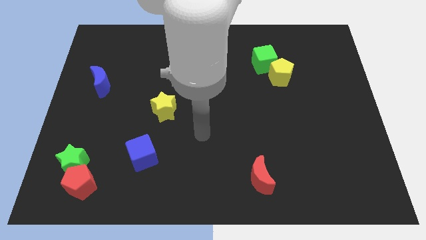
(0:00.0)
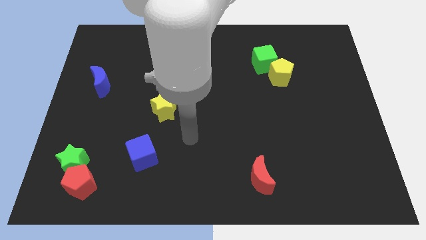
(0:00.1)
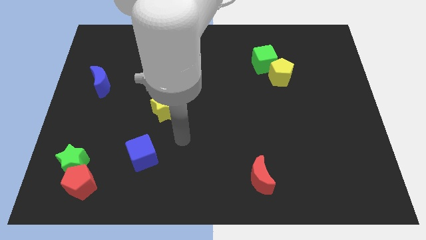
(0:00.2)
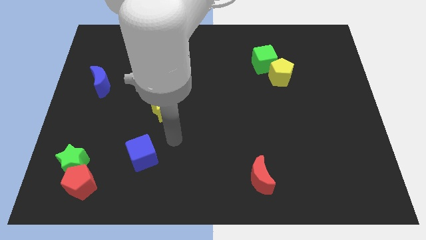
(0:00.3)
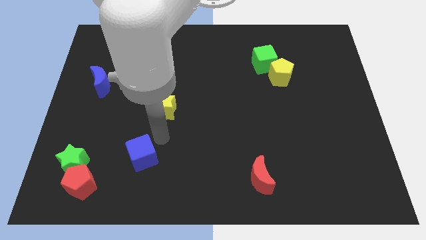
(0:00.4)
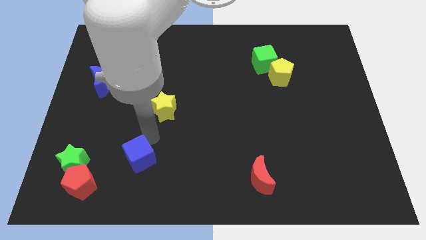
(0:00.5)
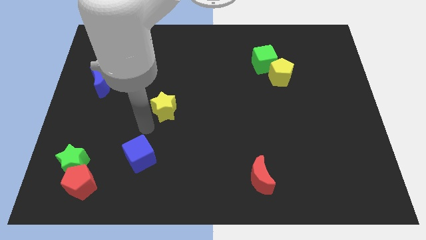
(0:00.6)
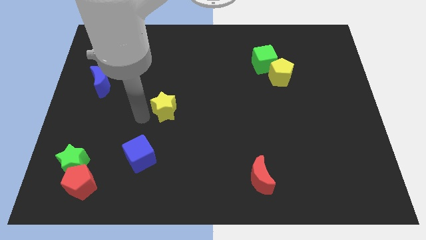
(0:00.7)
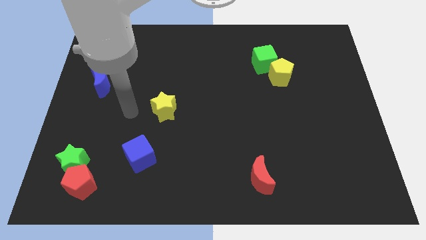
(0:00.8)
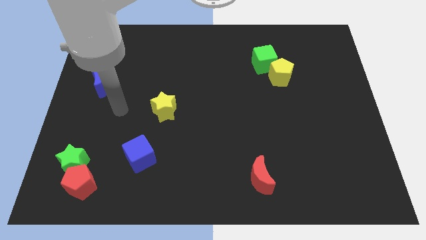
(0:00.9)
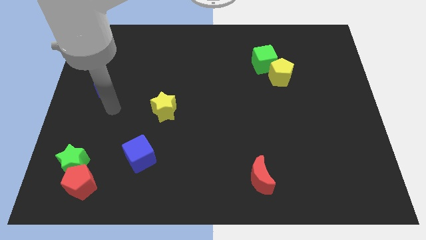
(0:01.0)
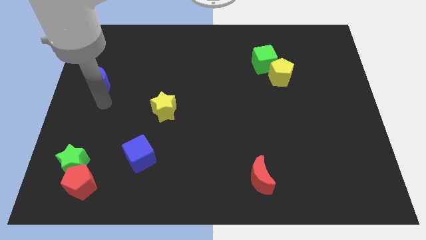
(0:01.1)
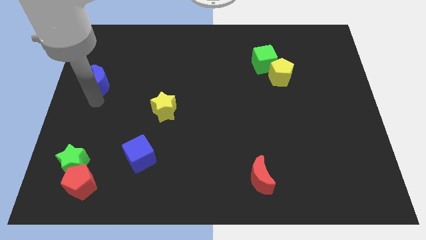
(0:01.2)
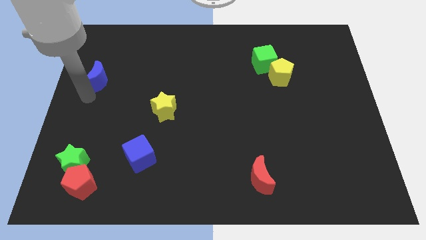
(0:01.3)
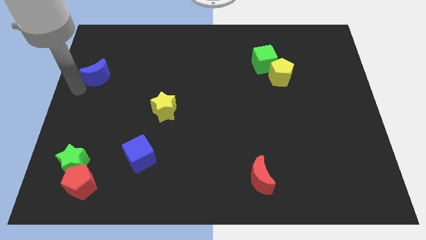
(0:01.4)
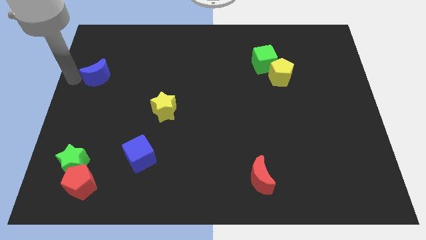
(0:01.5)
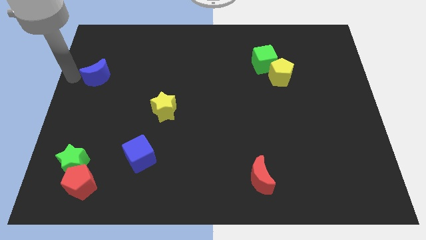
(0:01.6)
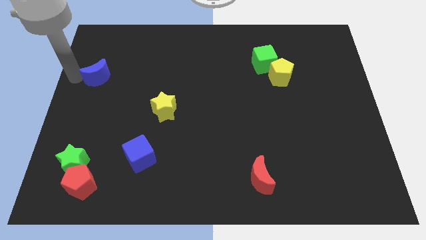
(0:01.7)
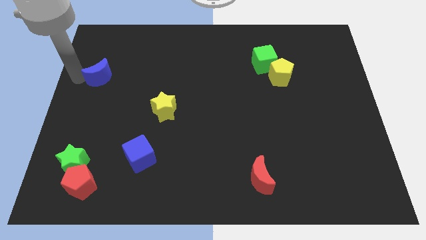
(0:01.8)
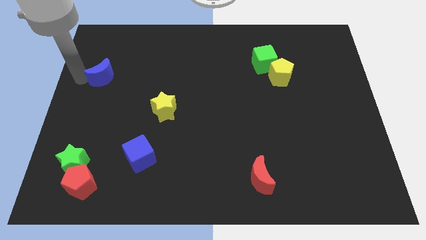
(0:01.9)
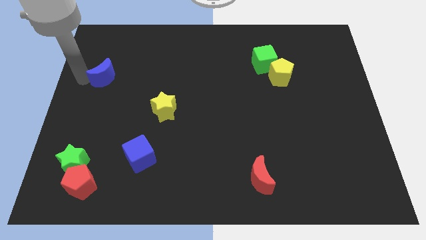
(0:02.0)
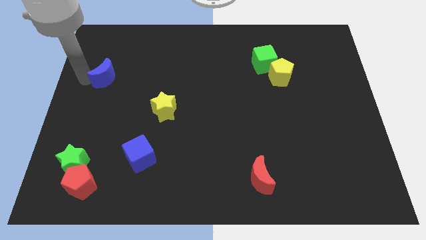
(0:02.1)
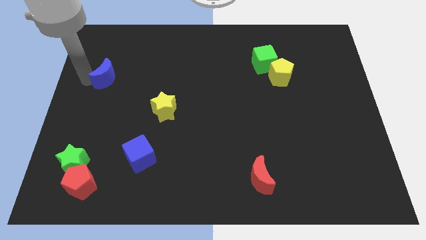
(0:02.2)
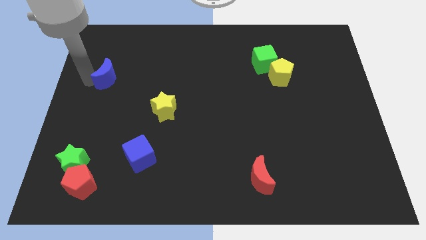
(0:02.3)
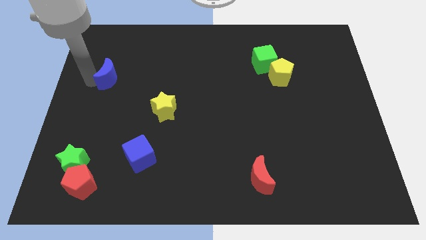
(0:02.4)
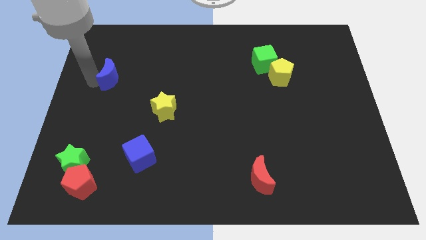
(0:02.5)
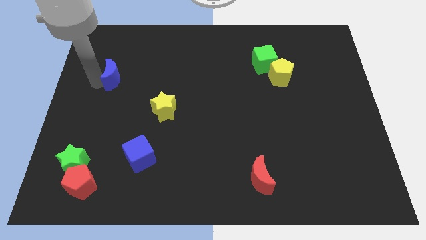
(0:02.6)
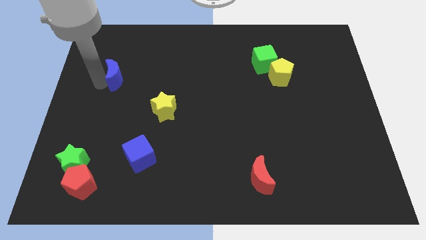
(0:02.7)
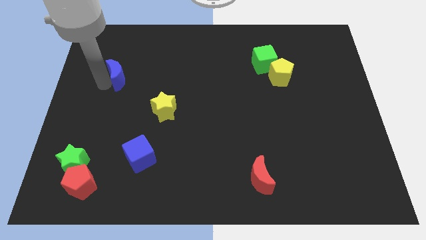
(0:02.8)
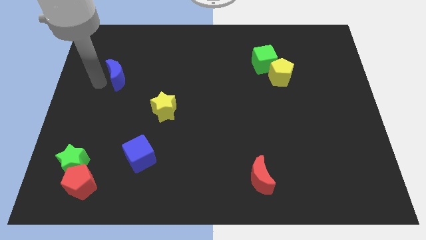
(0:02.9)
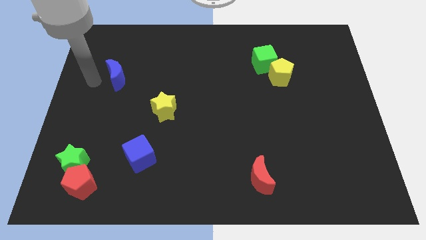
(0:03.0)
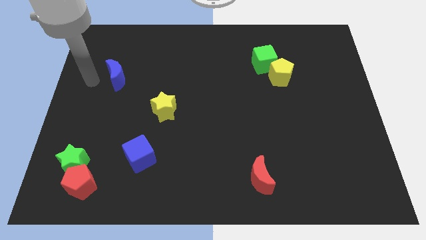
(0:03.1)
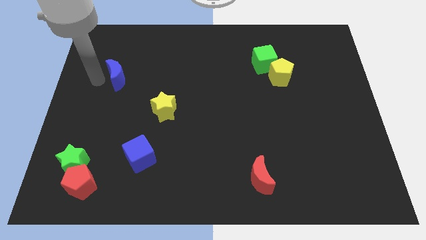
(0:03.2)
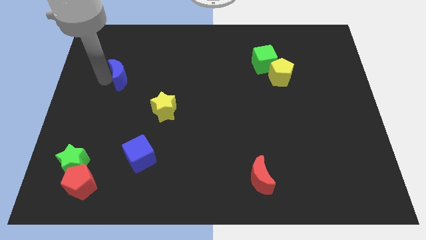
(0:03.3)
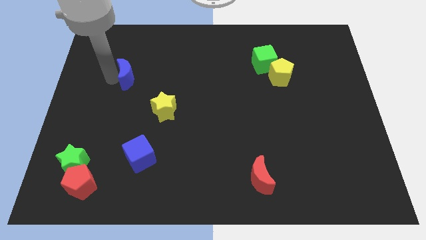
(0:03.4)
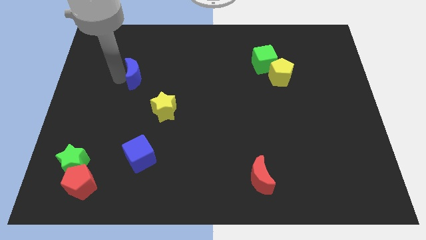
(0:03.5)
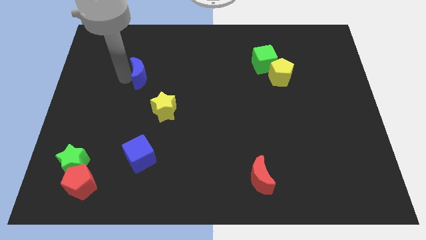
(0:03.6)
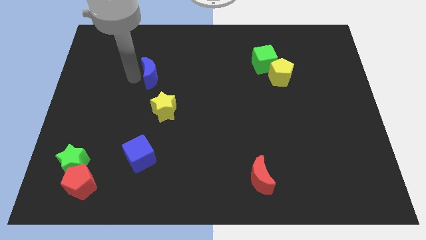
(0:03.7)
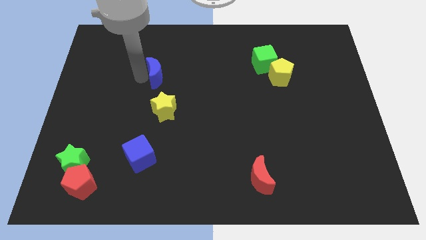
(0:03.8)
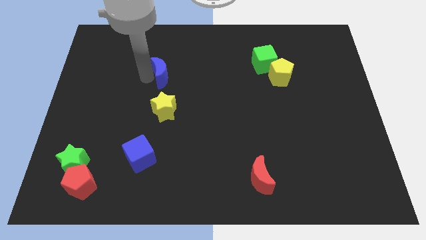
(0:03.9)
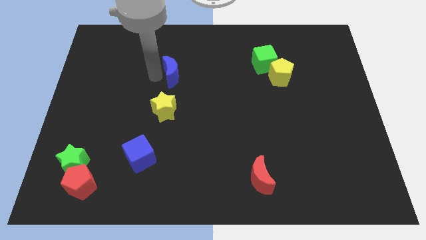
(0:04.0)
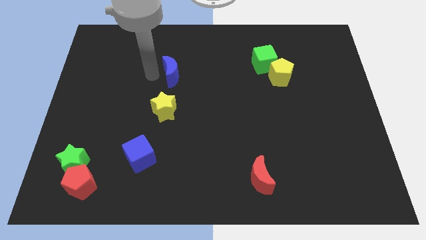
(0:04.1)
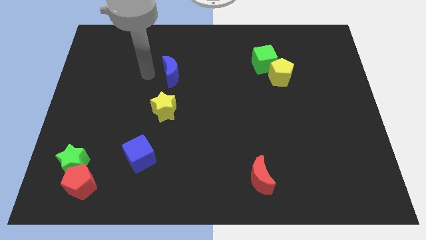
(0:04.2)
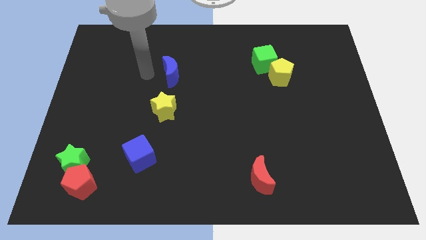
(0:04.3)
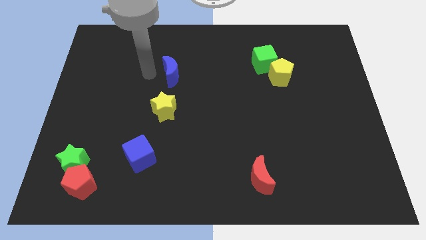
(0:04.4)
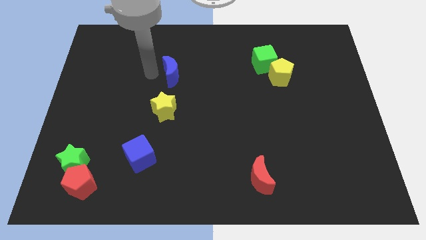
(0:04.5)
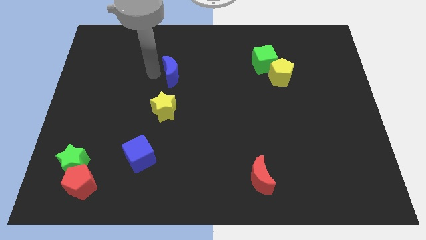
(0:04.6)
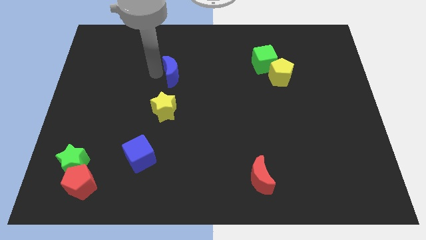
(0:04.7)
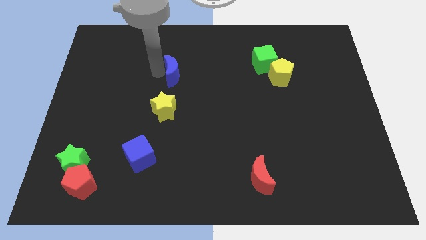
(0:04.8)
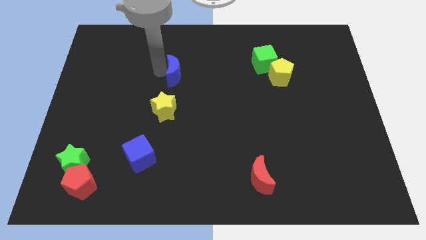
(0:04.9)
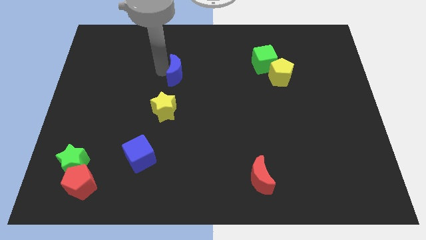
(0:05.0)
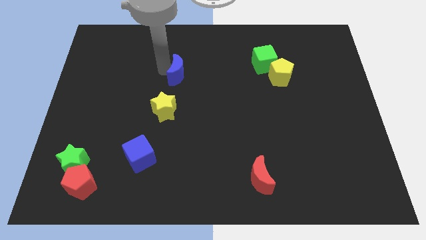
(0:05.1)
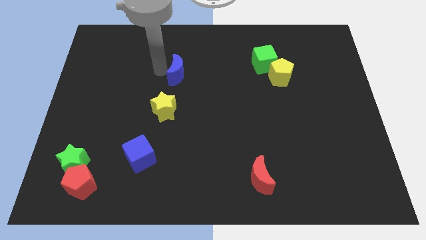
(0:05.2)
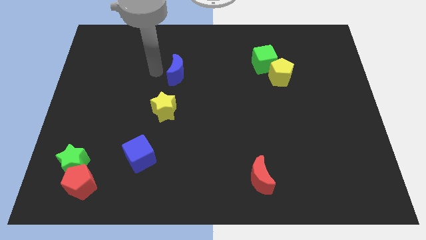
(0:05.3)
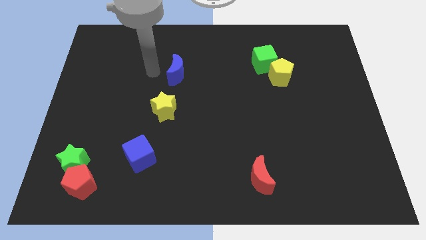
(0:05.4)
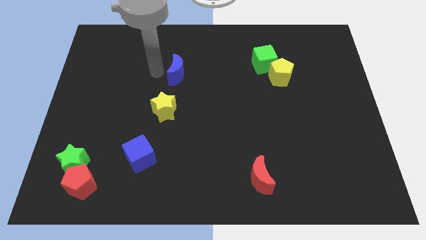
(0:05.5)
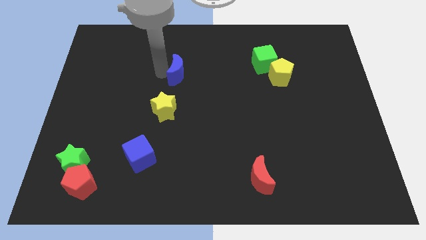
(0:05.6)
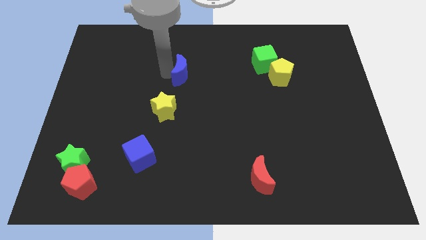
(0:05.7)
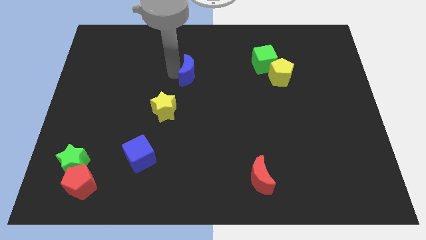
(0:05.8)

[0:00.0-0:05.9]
move the blue moon to the right

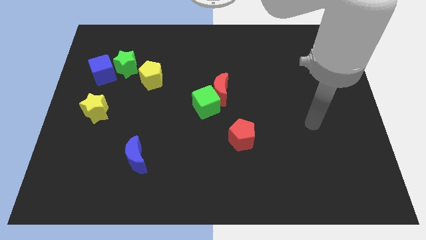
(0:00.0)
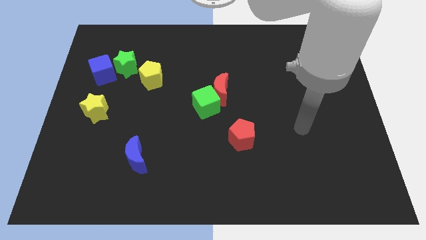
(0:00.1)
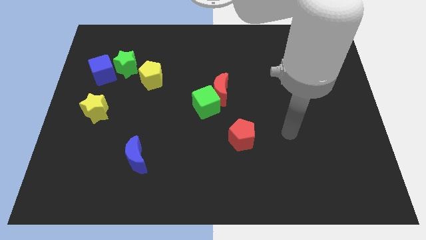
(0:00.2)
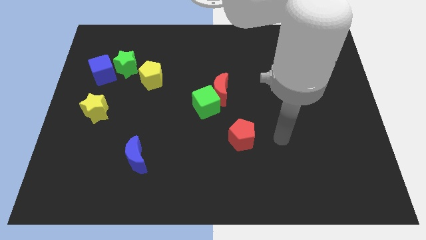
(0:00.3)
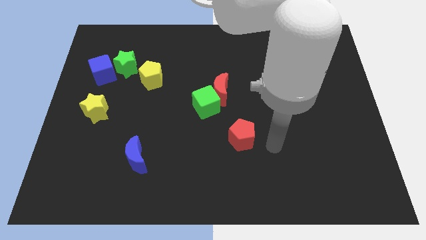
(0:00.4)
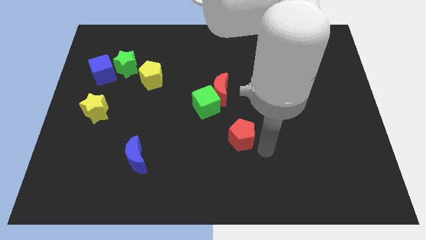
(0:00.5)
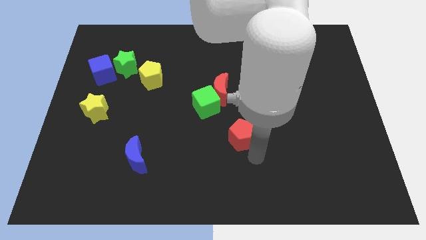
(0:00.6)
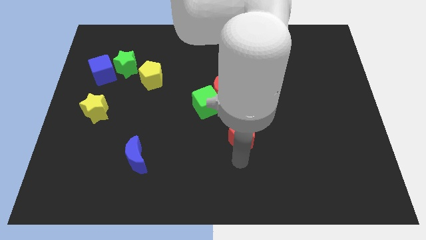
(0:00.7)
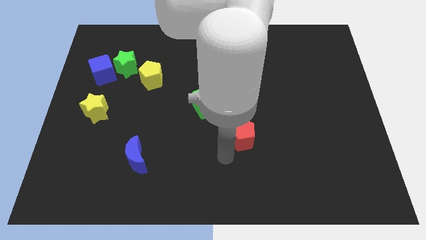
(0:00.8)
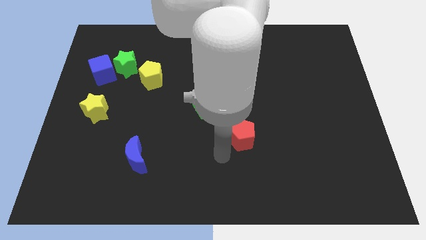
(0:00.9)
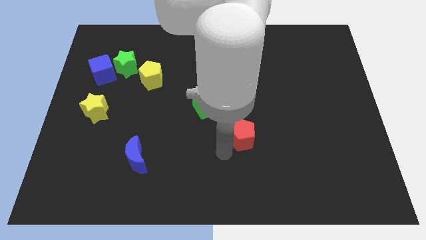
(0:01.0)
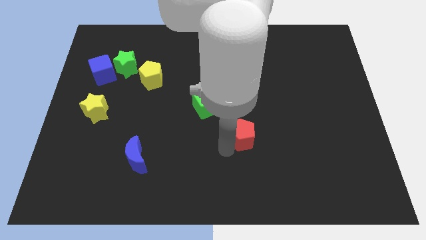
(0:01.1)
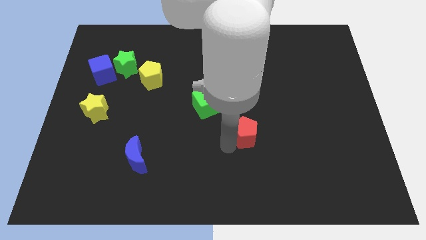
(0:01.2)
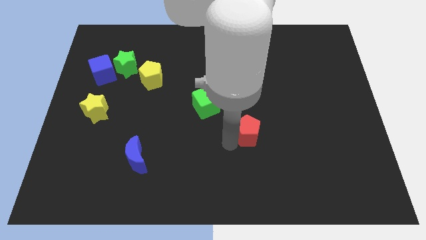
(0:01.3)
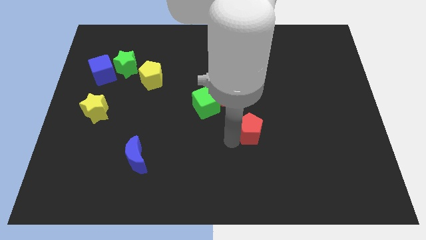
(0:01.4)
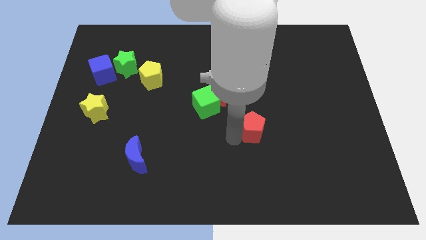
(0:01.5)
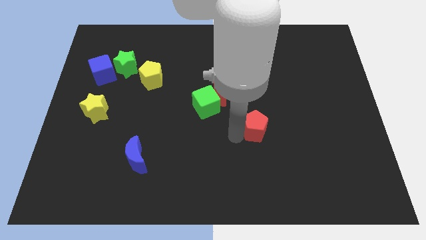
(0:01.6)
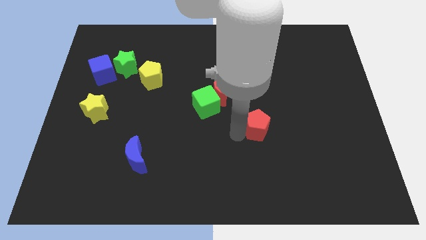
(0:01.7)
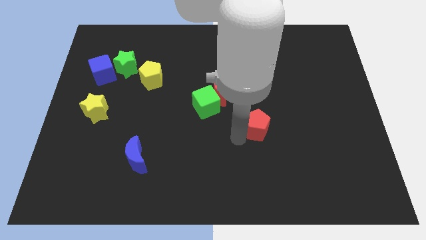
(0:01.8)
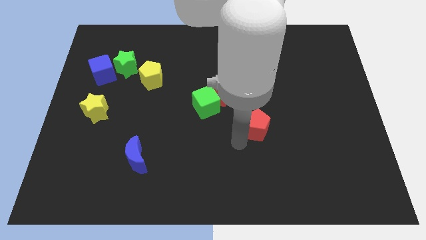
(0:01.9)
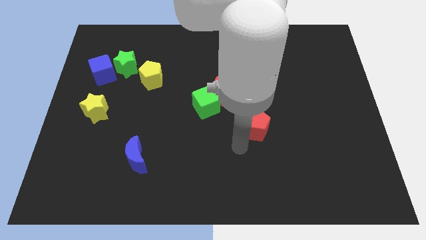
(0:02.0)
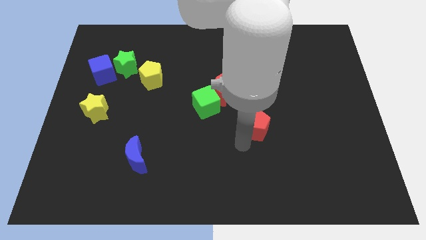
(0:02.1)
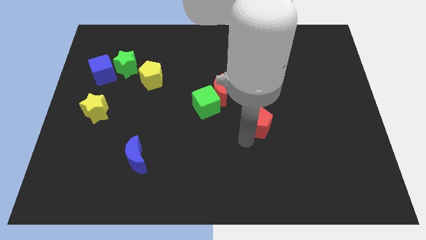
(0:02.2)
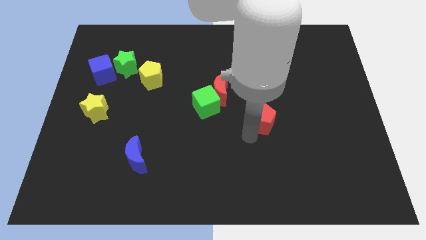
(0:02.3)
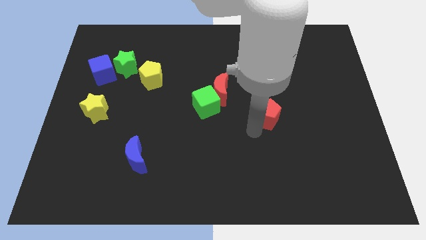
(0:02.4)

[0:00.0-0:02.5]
move the red pentagon slightly upwards and to the right
